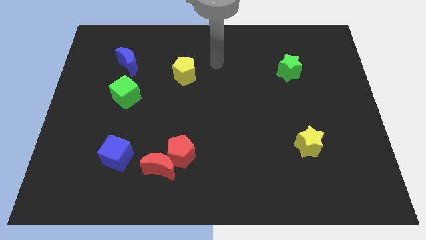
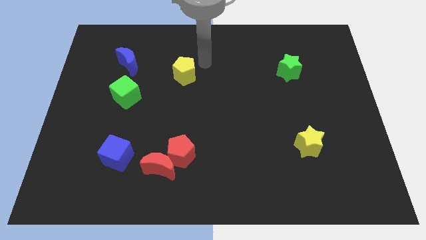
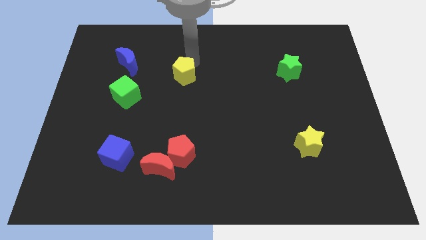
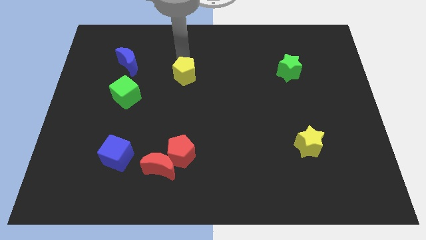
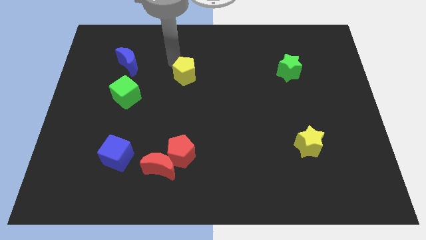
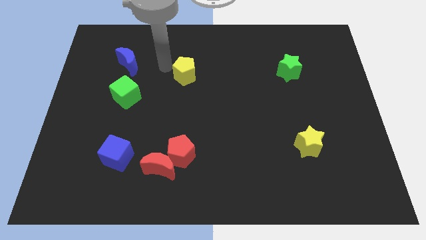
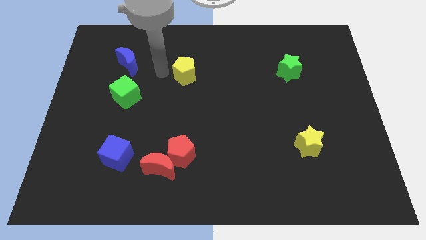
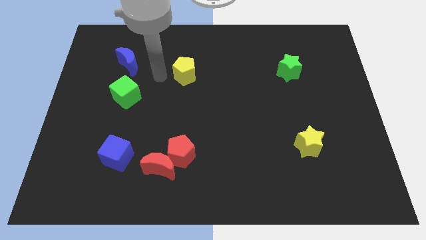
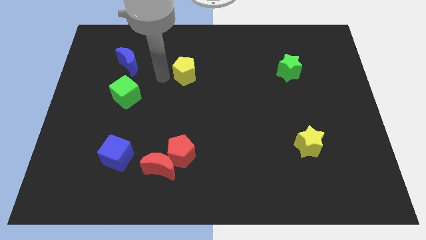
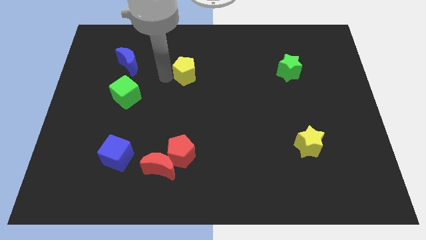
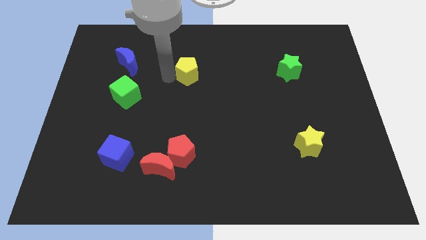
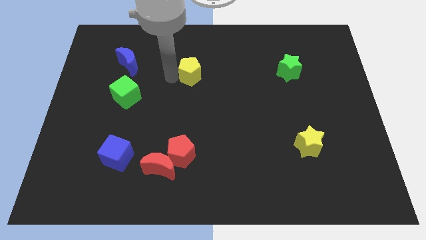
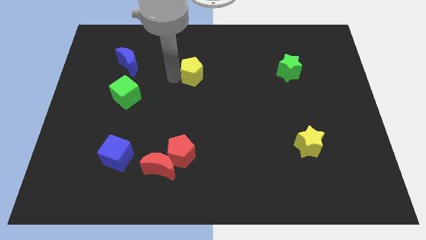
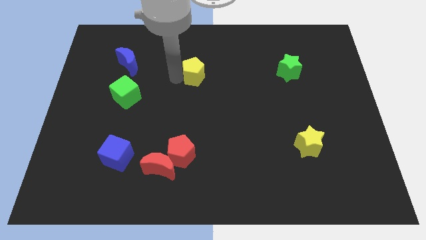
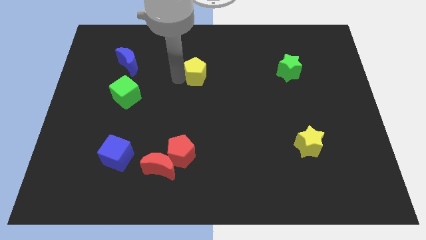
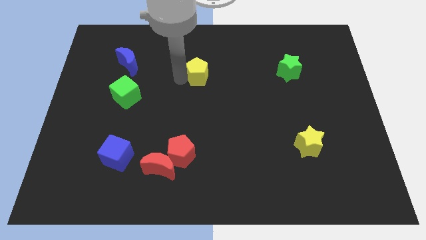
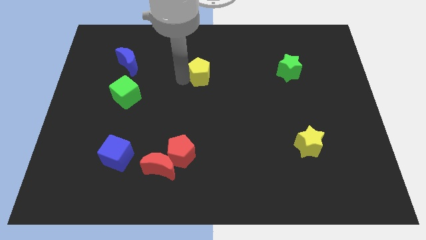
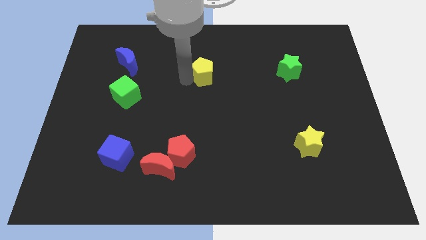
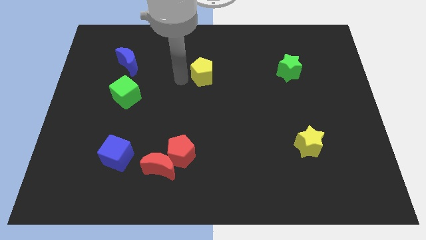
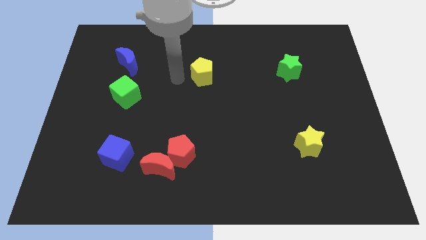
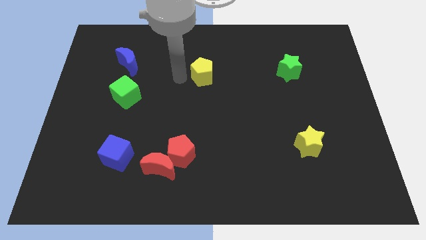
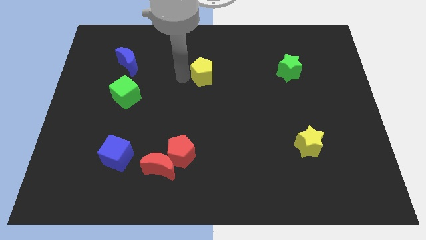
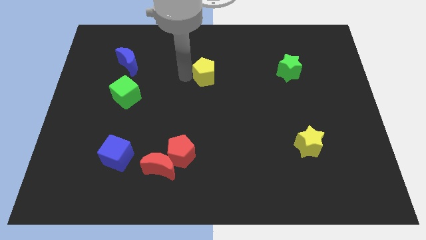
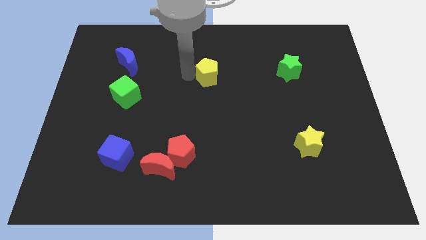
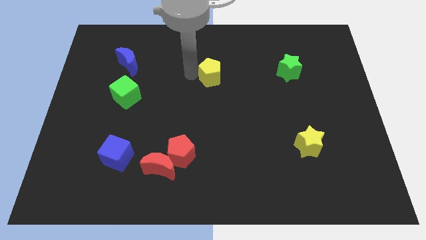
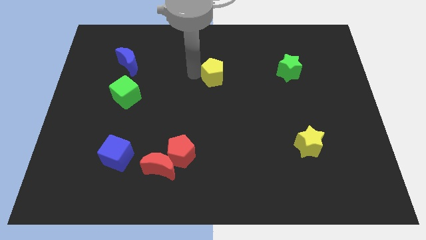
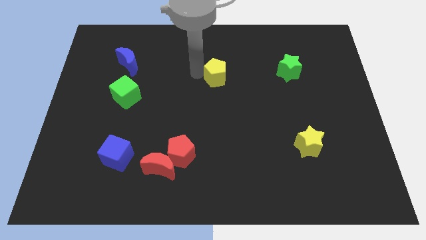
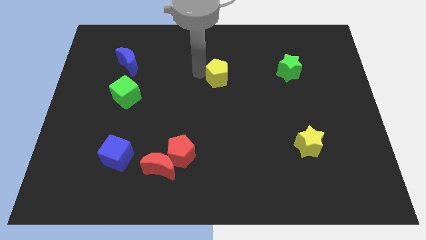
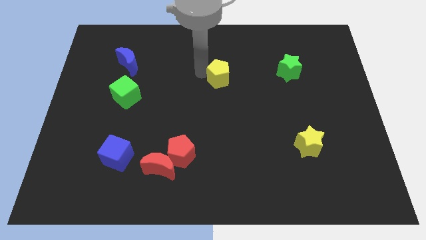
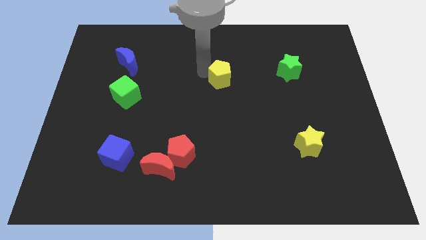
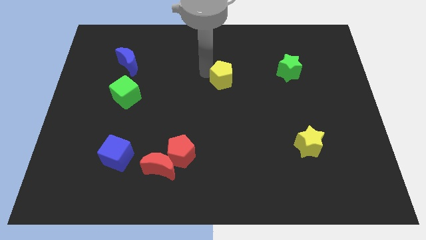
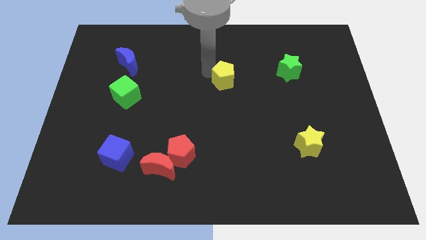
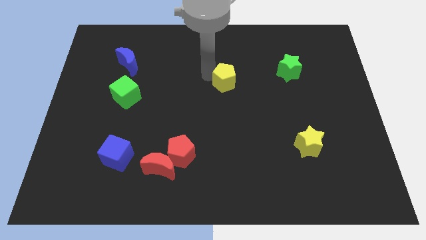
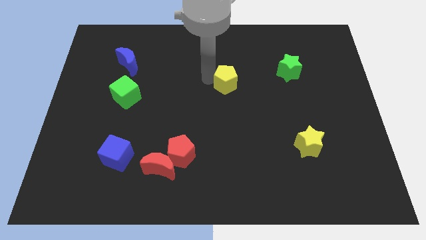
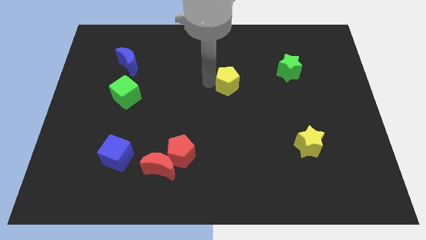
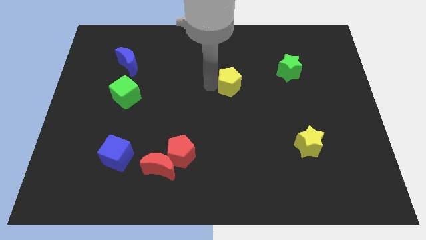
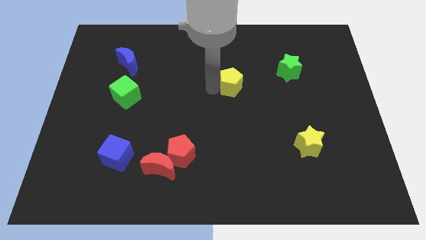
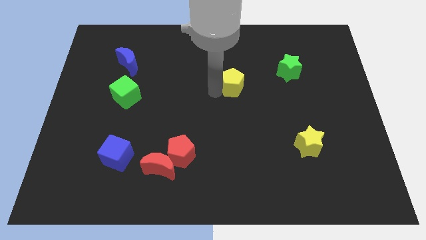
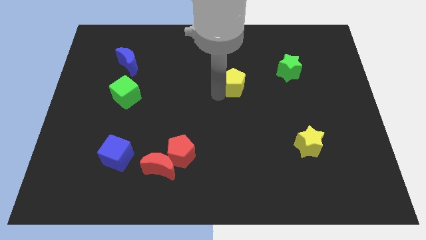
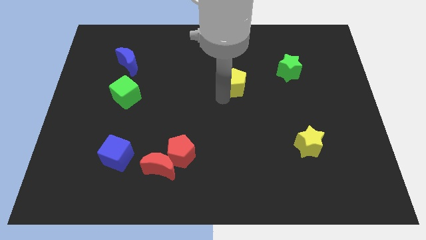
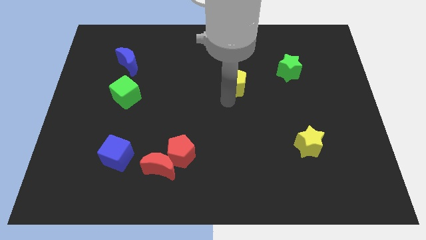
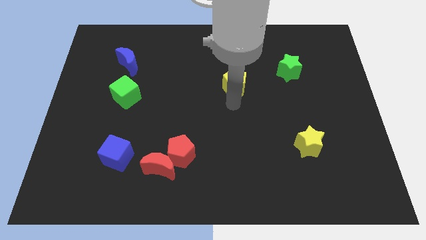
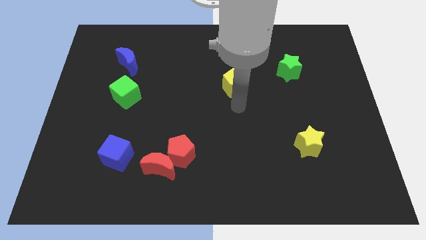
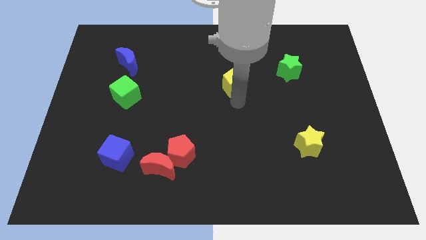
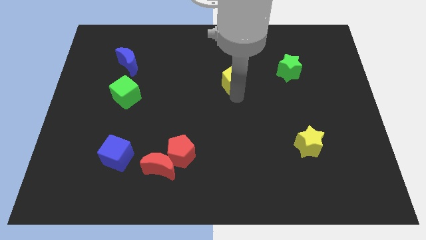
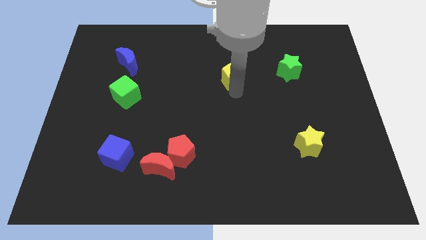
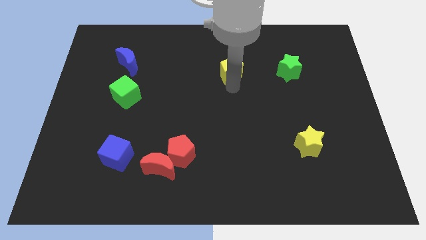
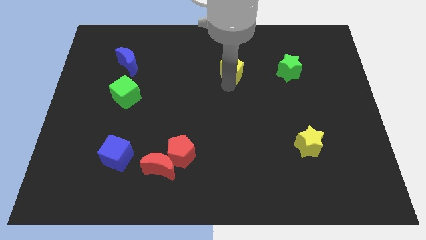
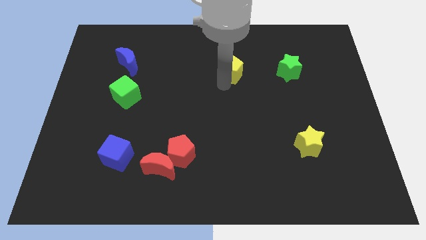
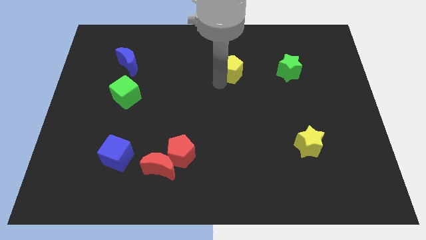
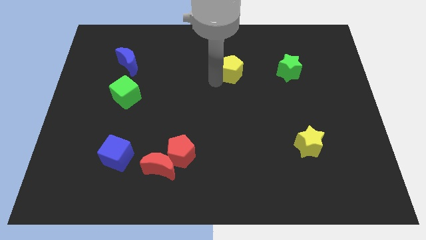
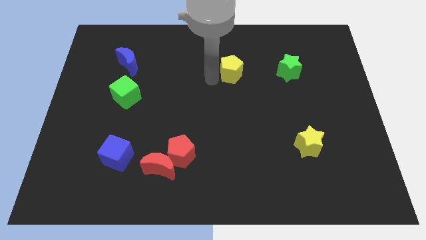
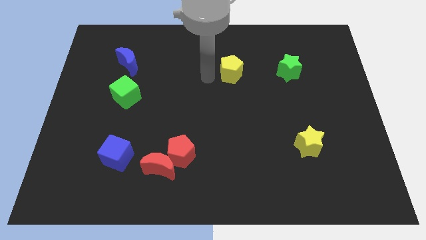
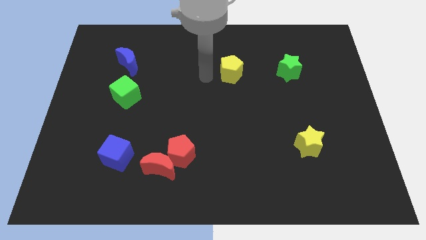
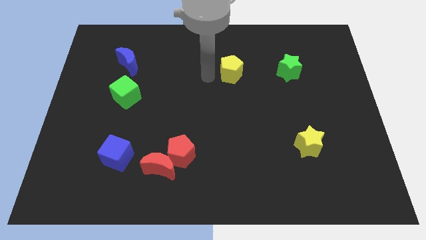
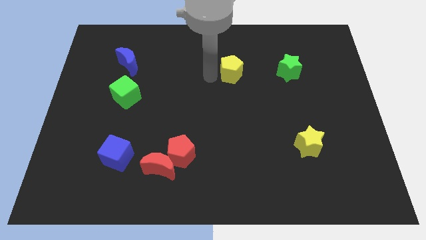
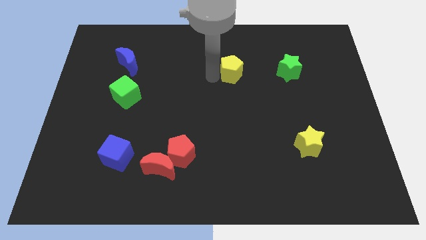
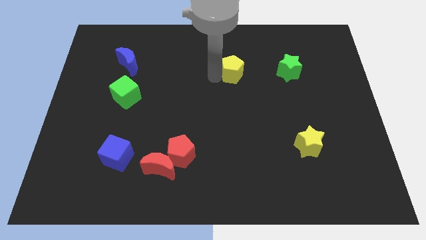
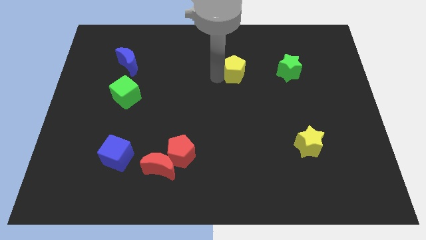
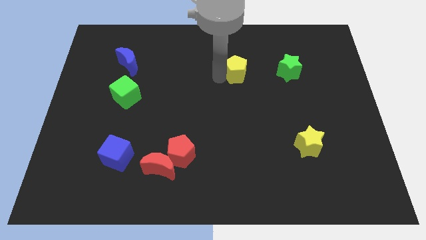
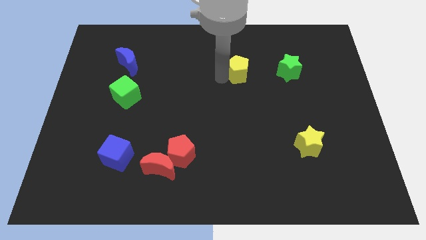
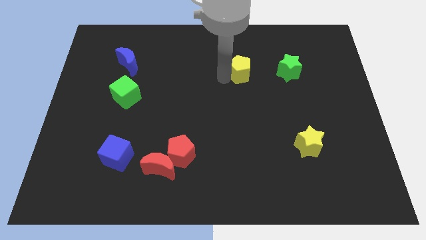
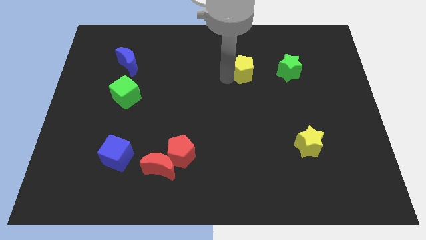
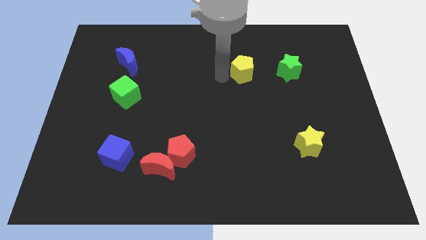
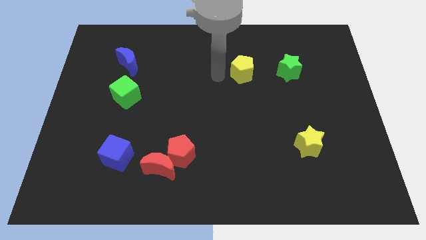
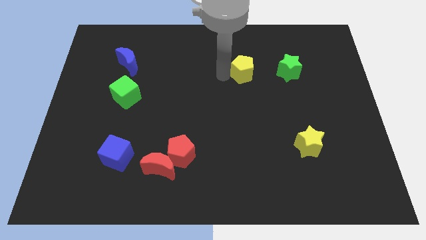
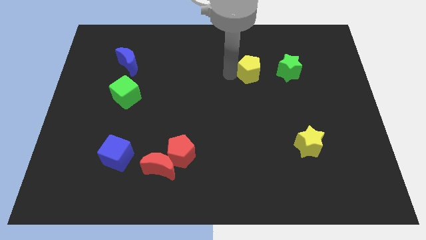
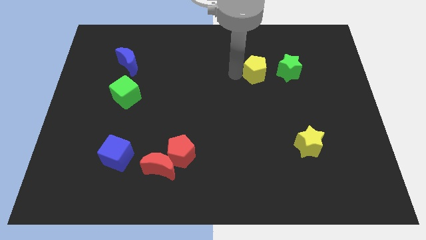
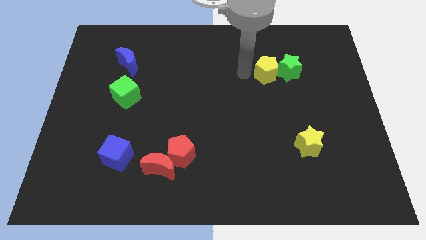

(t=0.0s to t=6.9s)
slide the yellow pentagon next to the green star

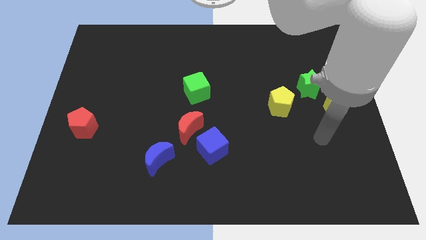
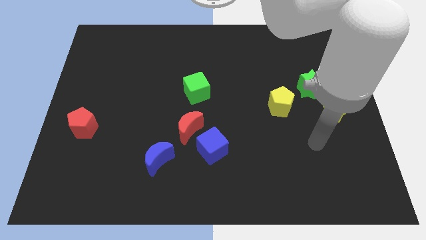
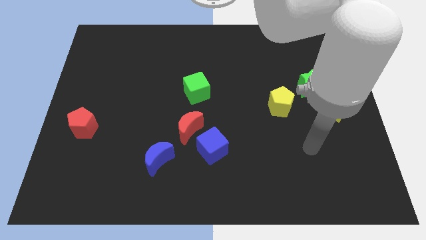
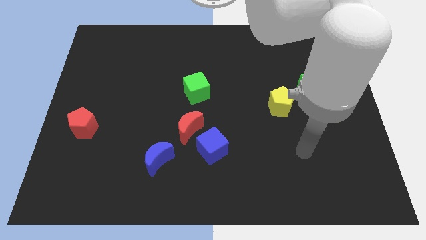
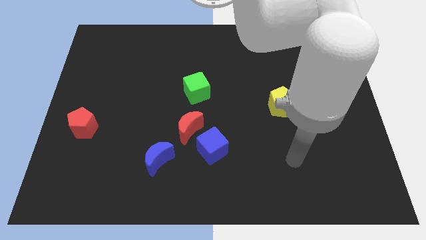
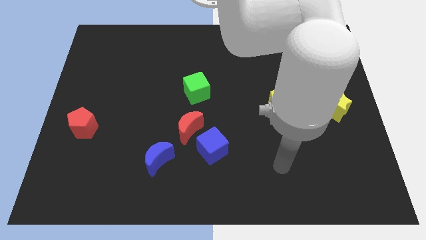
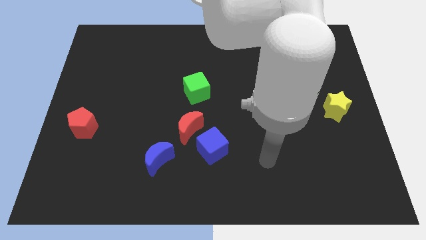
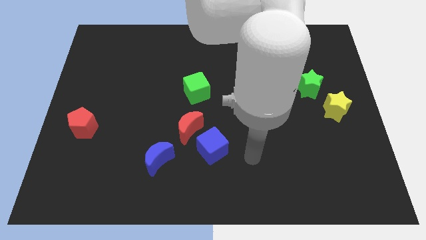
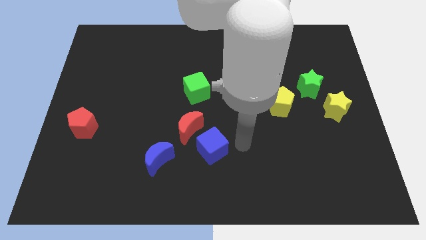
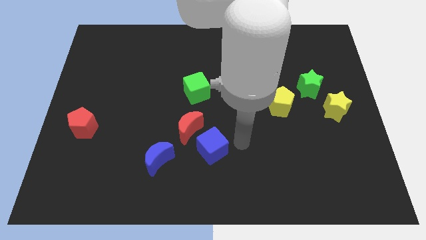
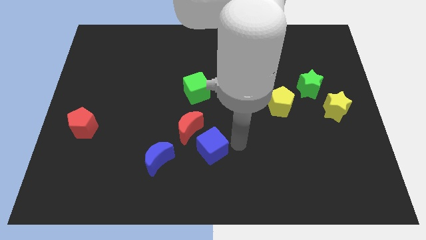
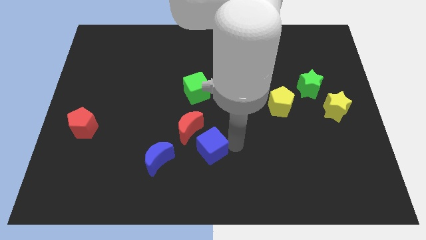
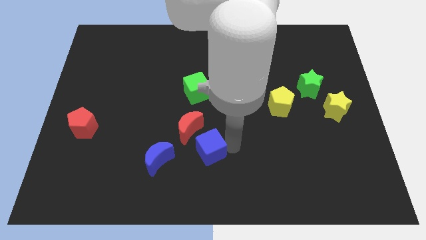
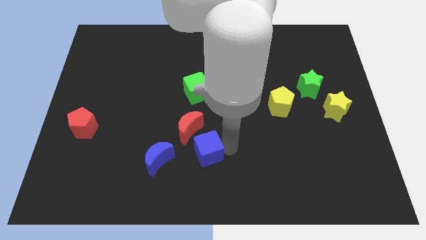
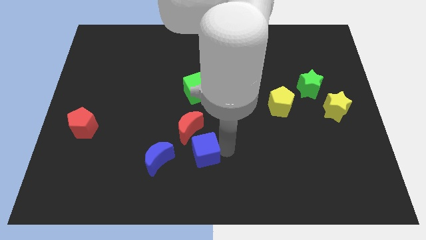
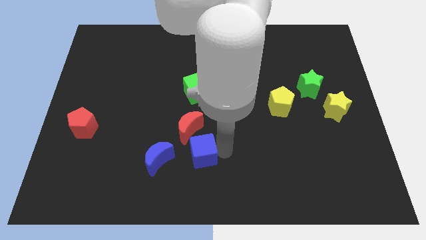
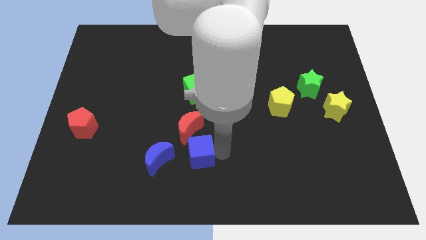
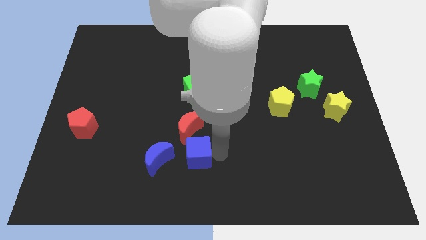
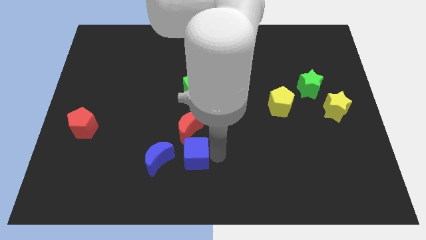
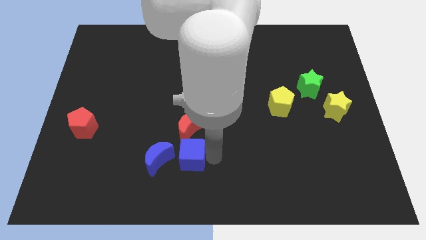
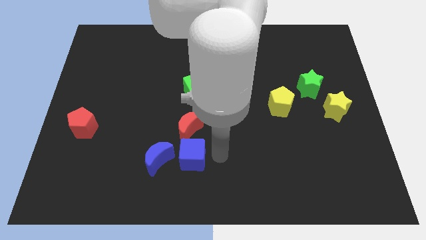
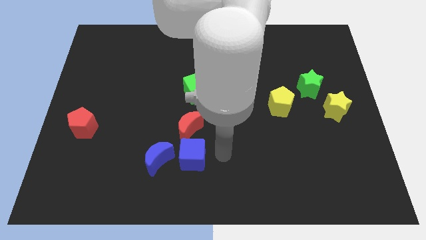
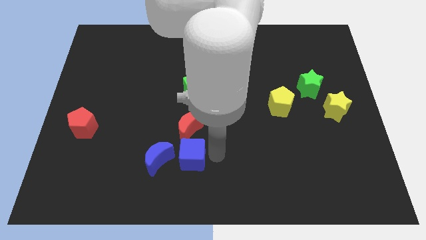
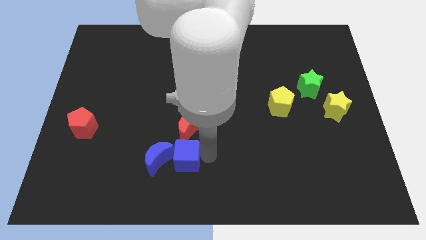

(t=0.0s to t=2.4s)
slide the blue cube close to the blue moon
